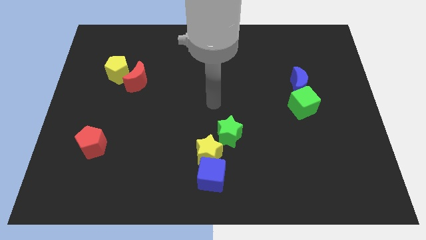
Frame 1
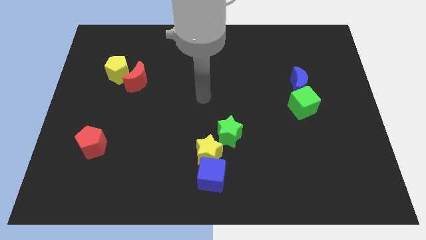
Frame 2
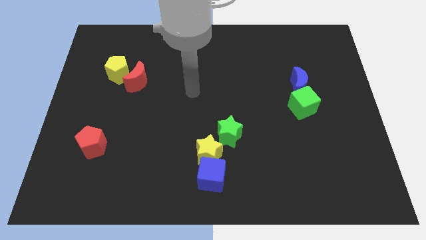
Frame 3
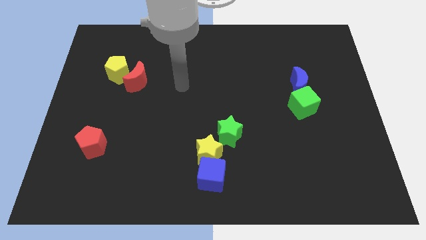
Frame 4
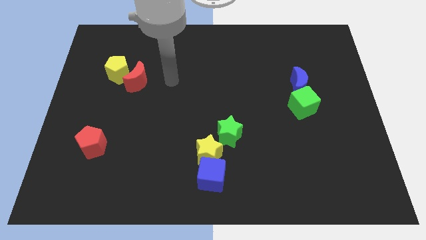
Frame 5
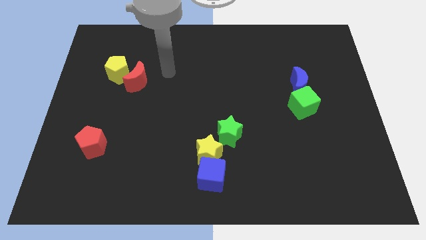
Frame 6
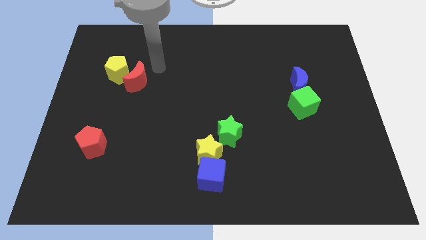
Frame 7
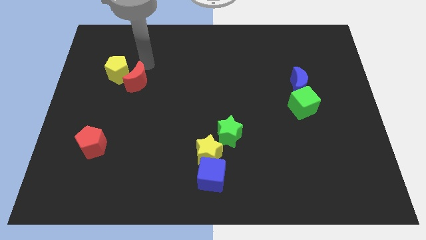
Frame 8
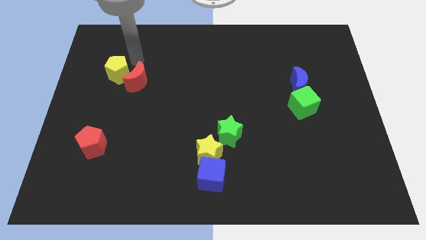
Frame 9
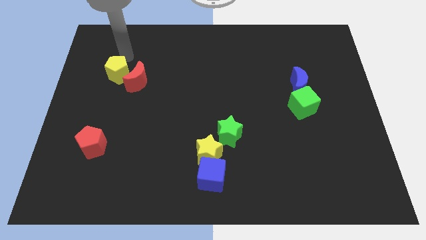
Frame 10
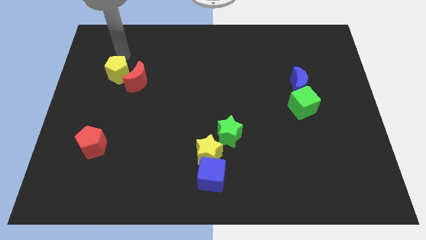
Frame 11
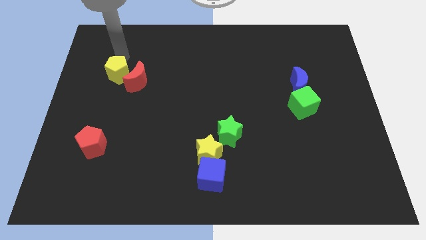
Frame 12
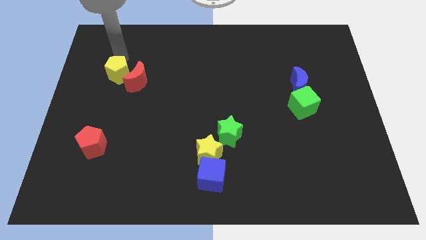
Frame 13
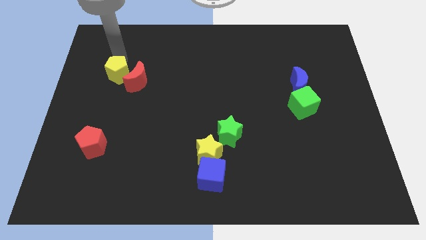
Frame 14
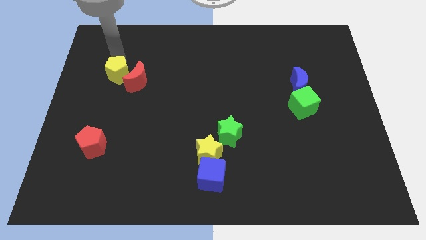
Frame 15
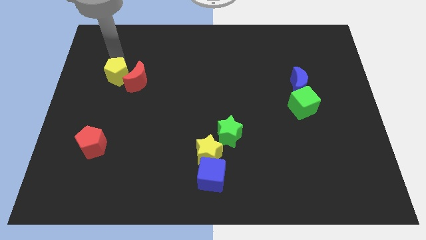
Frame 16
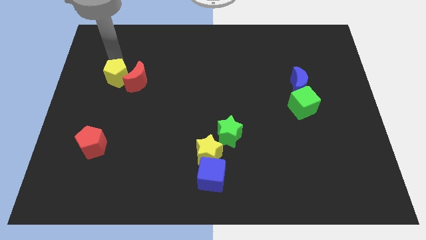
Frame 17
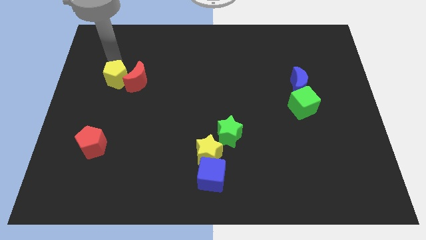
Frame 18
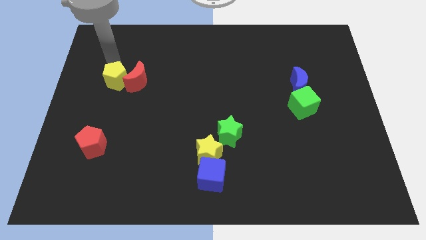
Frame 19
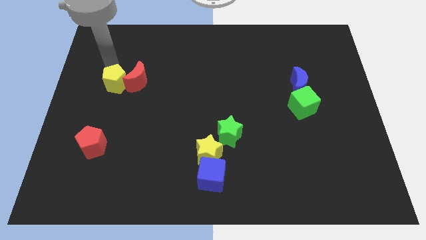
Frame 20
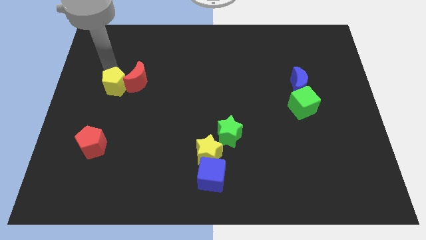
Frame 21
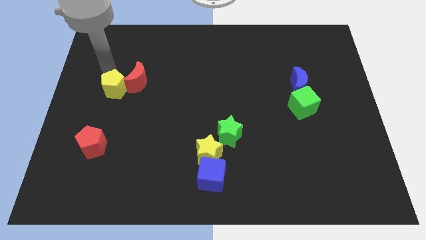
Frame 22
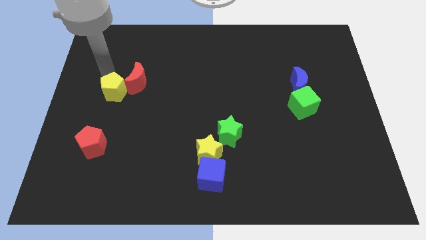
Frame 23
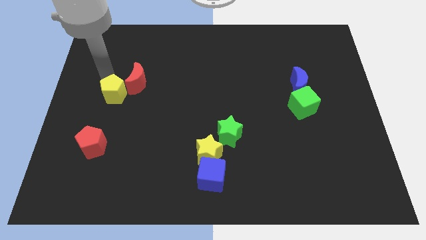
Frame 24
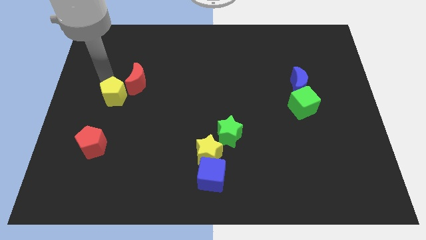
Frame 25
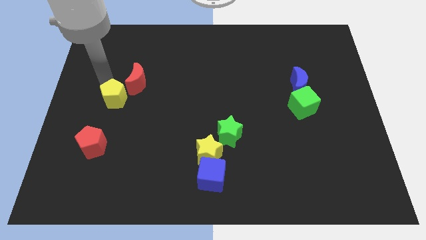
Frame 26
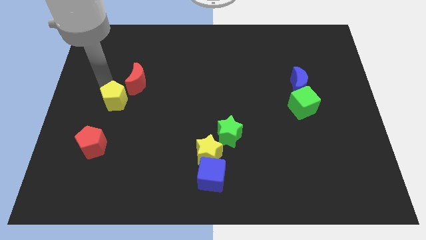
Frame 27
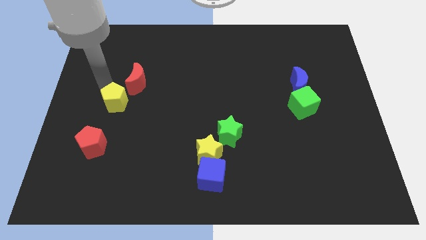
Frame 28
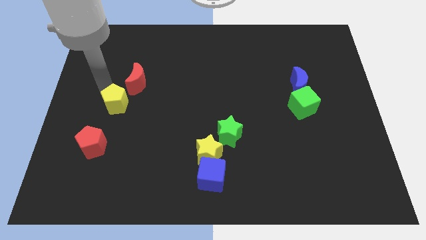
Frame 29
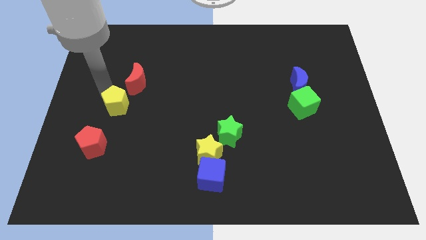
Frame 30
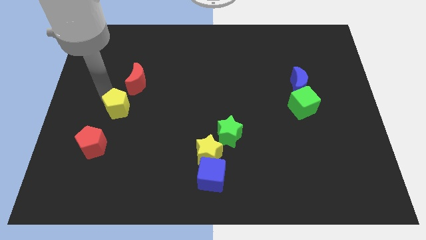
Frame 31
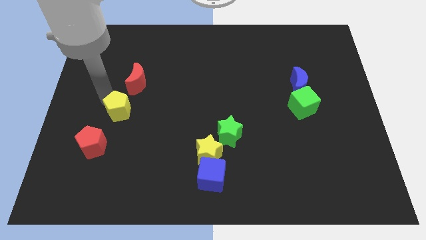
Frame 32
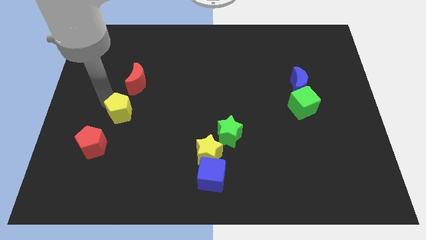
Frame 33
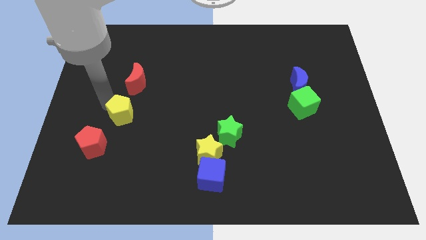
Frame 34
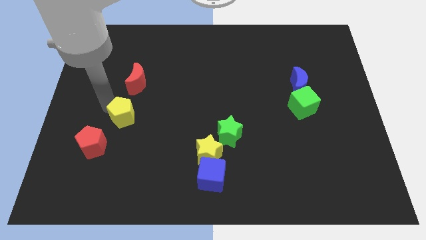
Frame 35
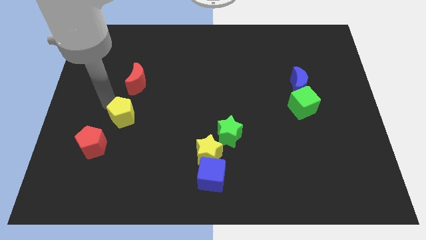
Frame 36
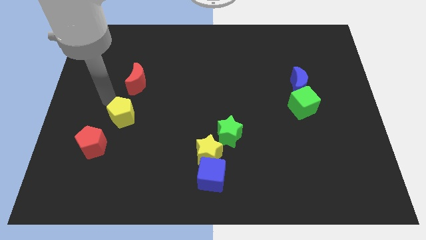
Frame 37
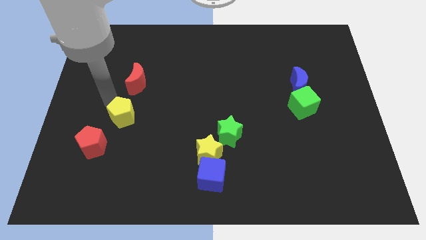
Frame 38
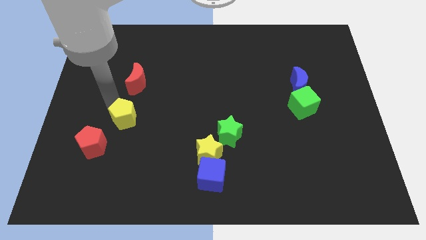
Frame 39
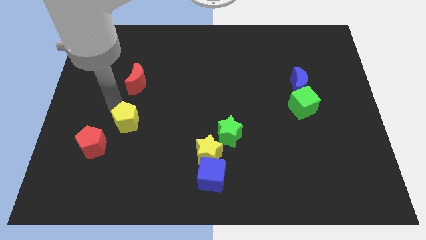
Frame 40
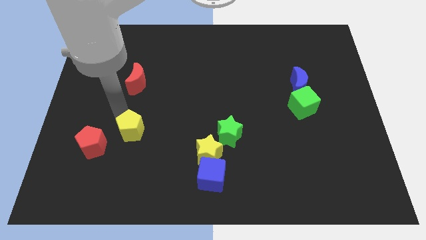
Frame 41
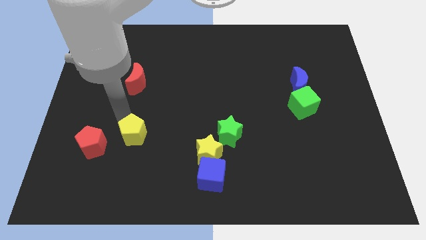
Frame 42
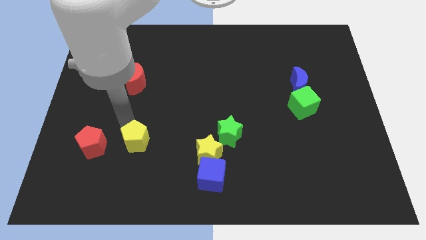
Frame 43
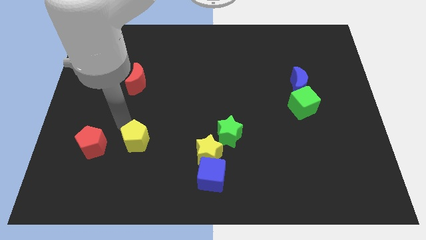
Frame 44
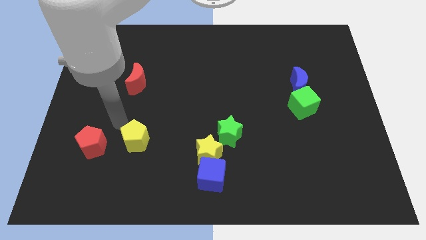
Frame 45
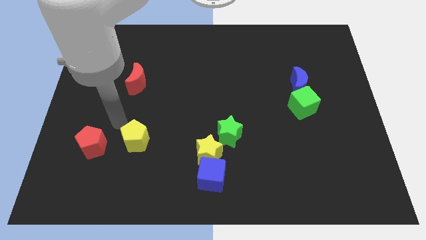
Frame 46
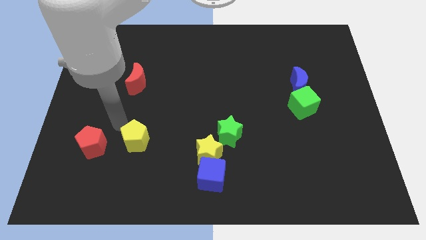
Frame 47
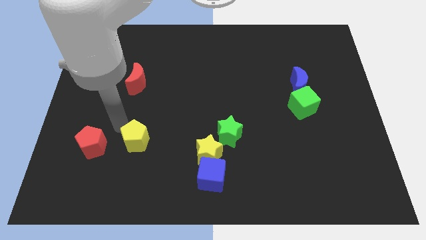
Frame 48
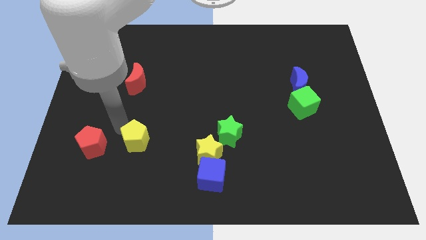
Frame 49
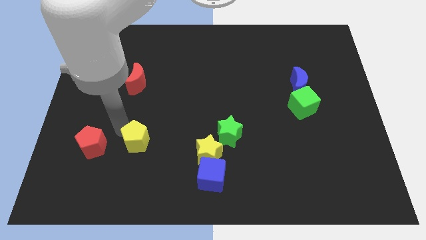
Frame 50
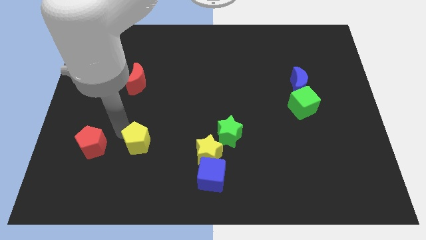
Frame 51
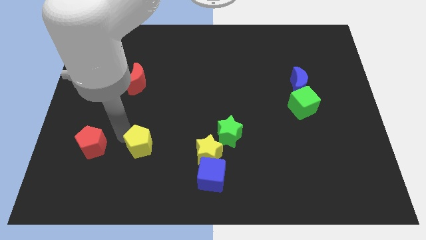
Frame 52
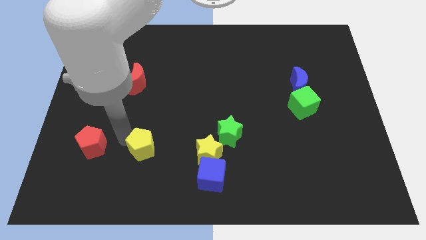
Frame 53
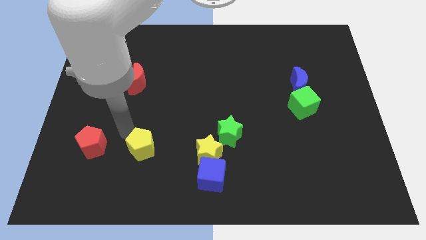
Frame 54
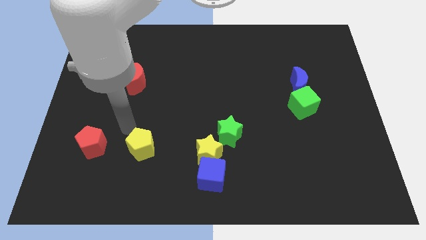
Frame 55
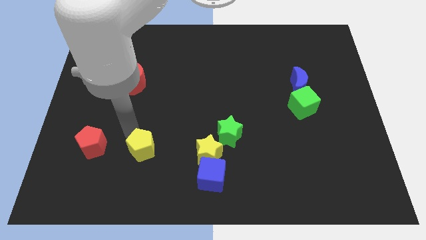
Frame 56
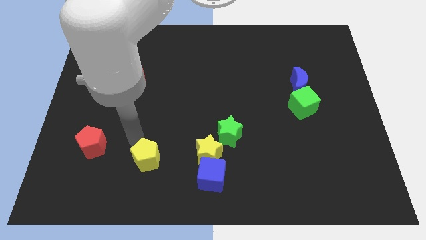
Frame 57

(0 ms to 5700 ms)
put the yellow pentagon to the left of the blue cube

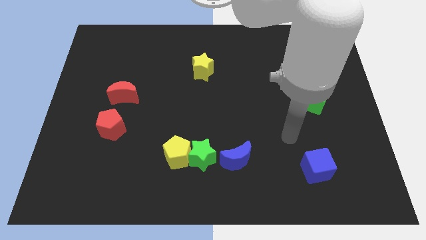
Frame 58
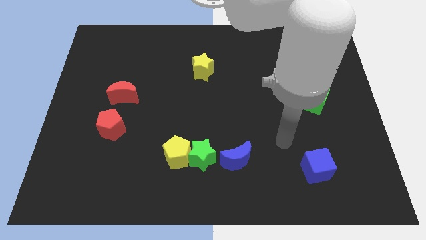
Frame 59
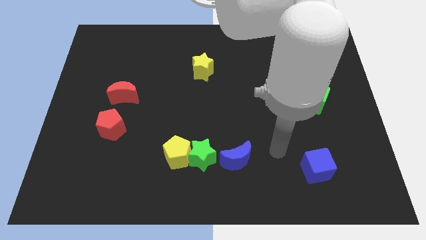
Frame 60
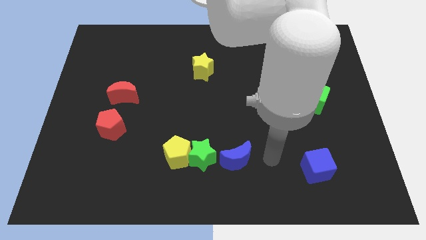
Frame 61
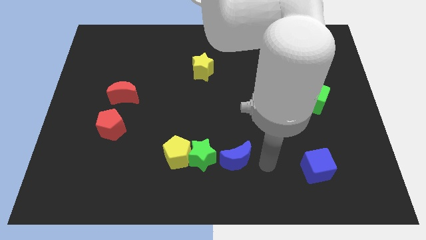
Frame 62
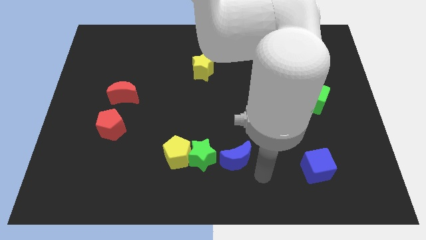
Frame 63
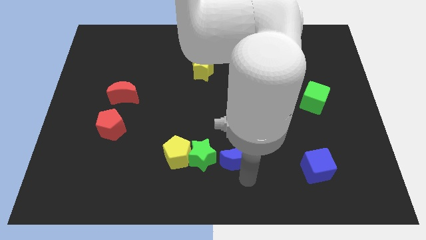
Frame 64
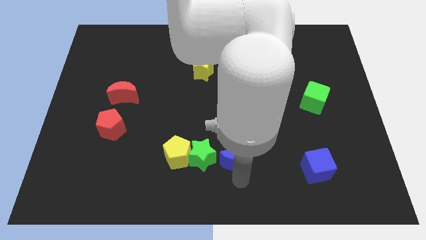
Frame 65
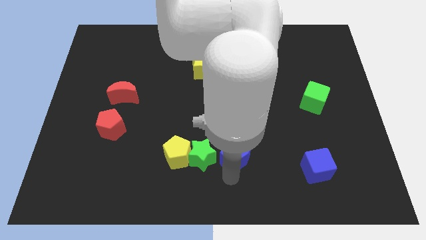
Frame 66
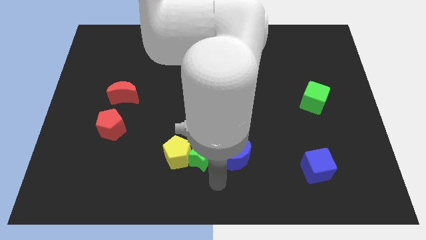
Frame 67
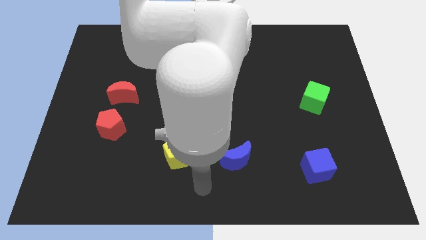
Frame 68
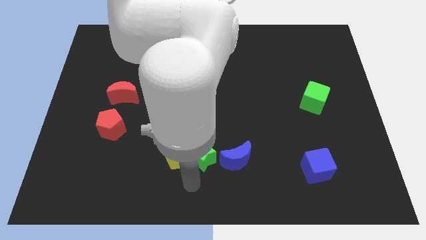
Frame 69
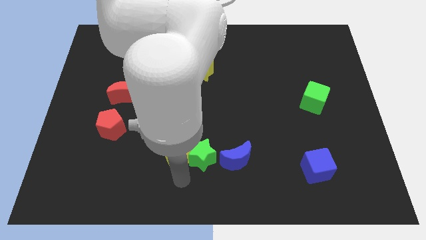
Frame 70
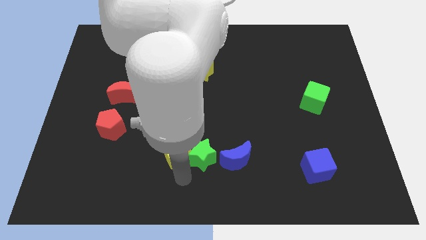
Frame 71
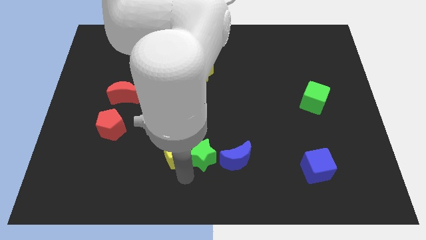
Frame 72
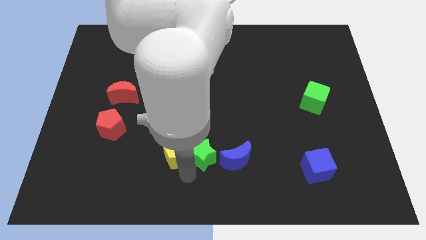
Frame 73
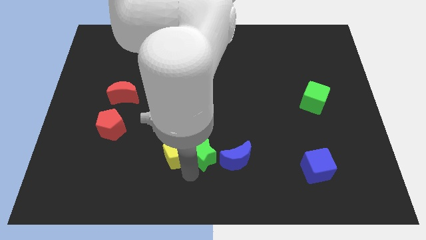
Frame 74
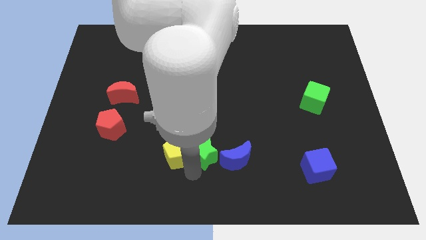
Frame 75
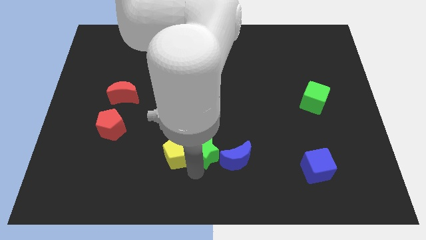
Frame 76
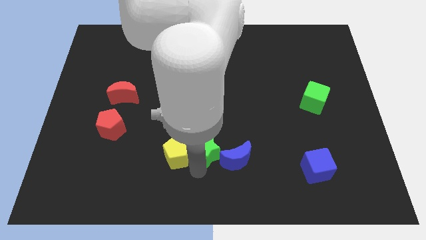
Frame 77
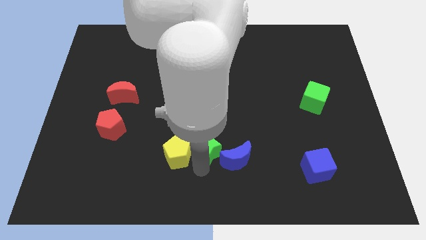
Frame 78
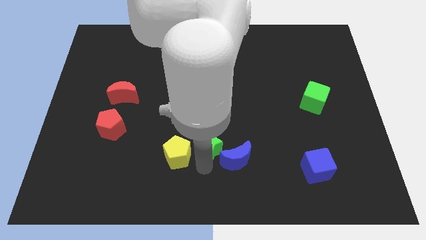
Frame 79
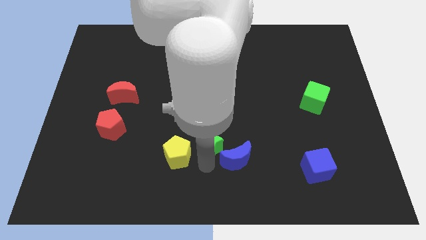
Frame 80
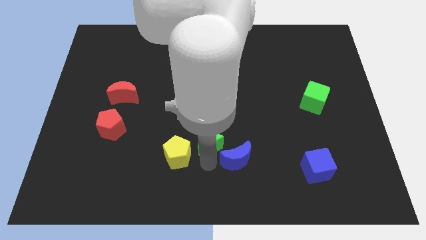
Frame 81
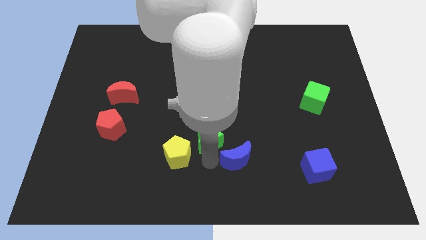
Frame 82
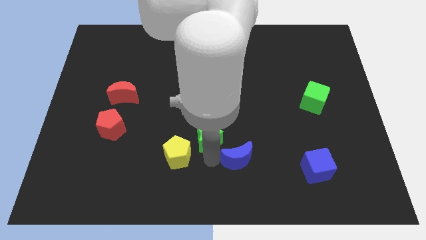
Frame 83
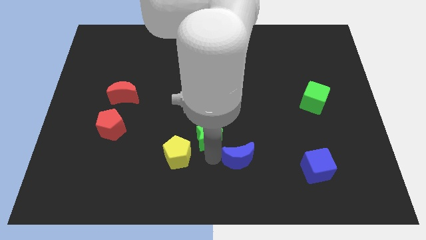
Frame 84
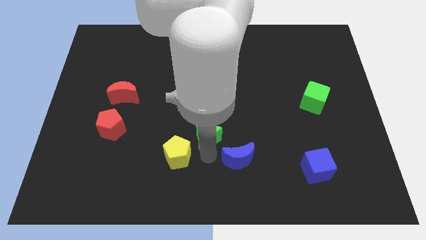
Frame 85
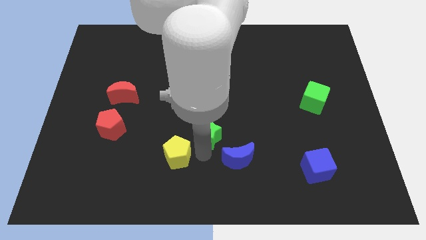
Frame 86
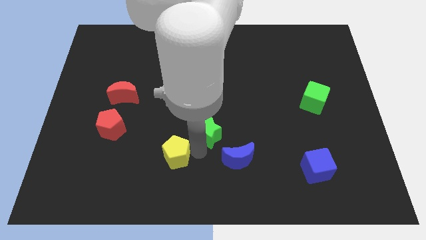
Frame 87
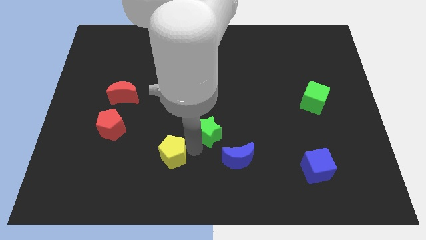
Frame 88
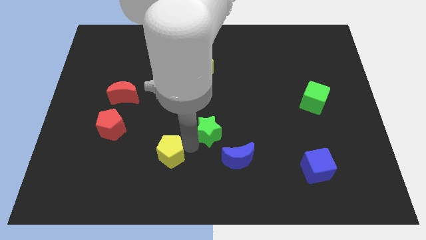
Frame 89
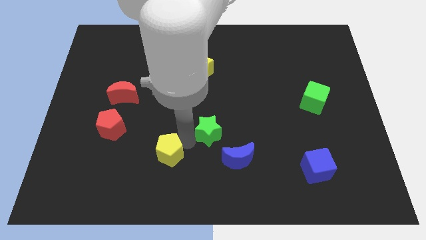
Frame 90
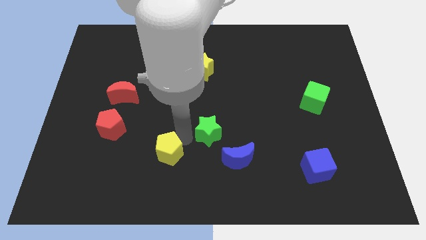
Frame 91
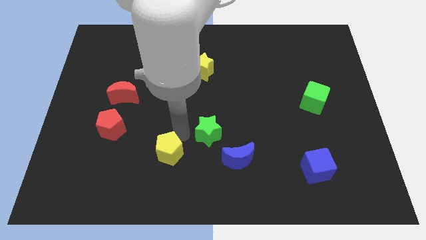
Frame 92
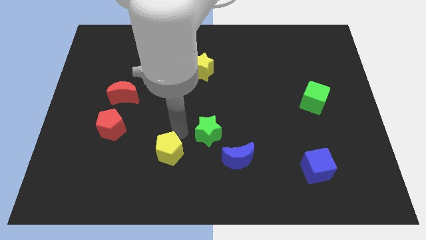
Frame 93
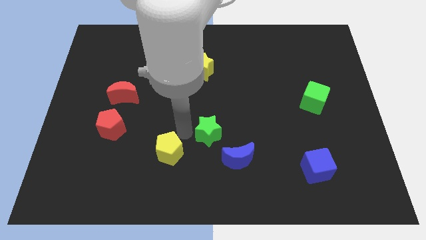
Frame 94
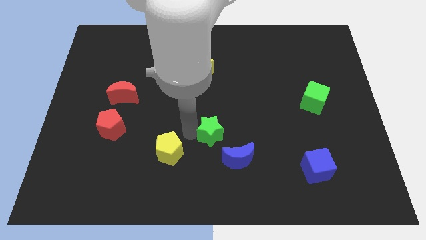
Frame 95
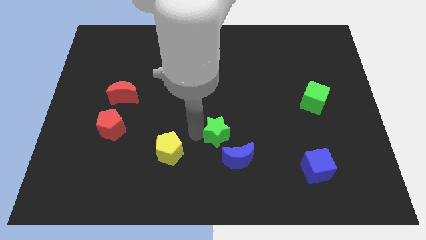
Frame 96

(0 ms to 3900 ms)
slide the green star to the top side of the blue moon
